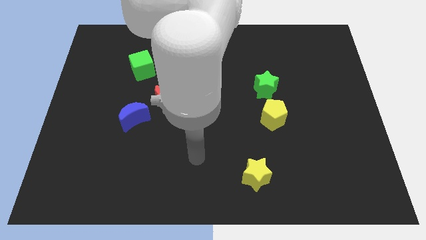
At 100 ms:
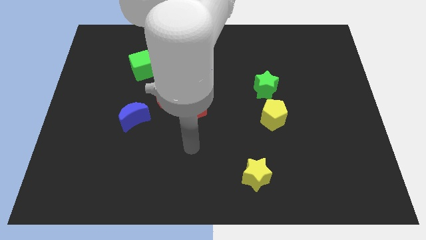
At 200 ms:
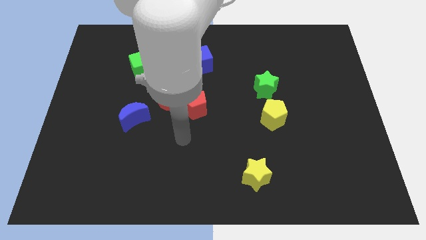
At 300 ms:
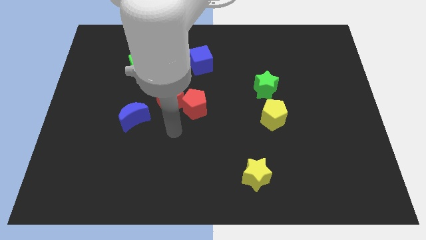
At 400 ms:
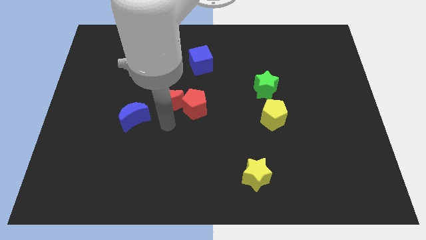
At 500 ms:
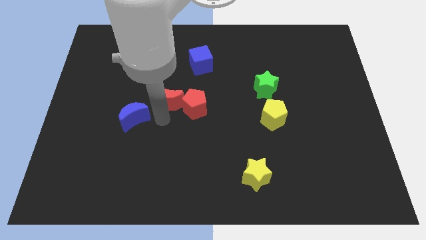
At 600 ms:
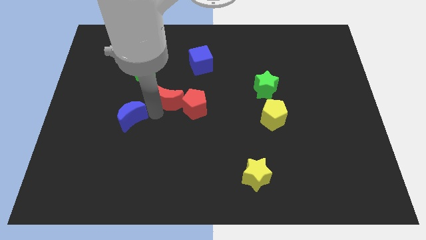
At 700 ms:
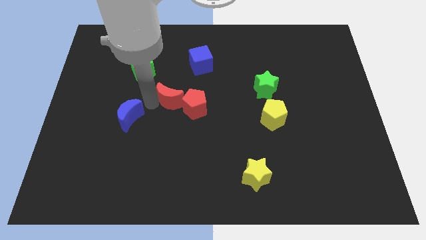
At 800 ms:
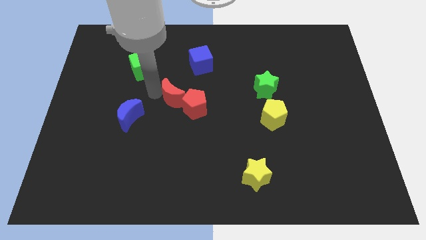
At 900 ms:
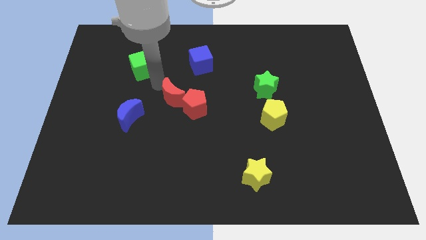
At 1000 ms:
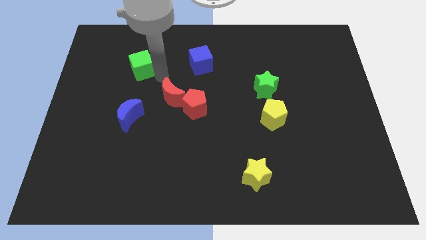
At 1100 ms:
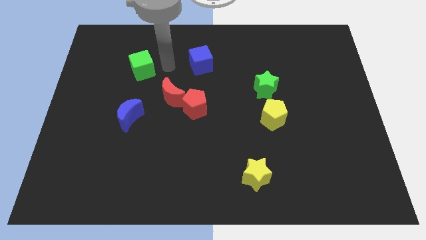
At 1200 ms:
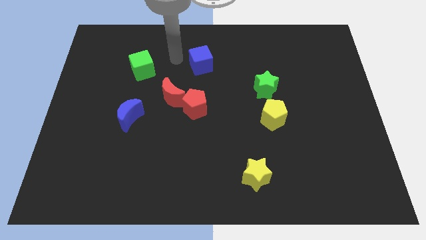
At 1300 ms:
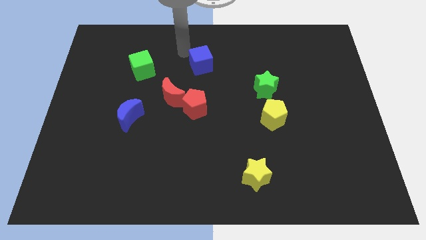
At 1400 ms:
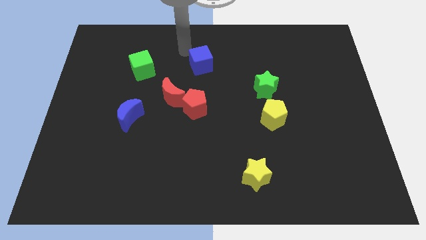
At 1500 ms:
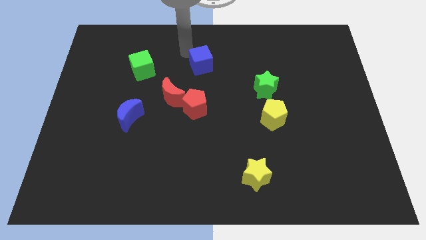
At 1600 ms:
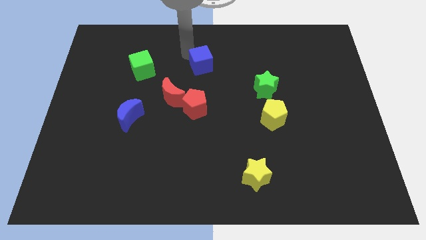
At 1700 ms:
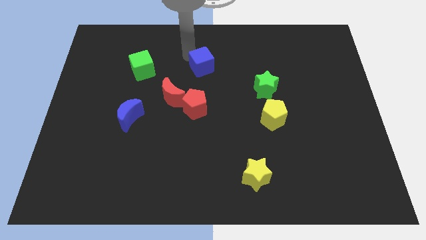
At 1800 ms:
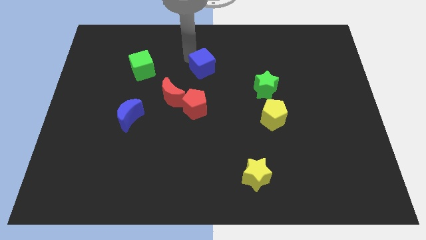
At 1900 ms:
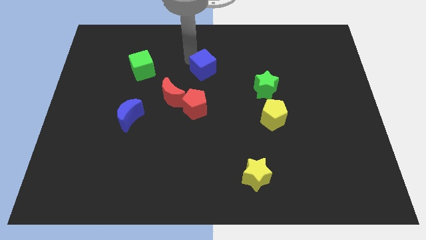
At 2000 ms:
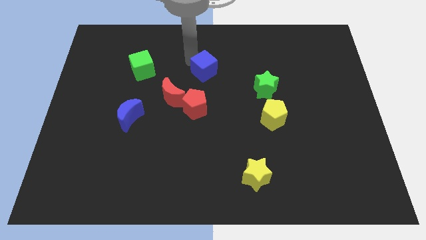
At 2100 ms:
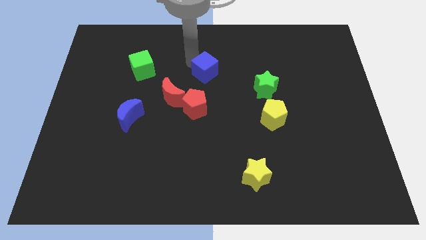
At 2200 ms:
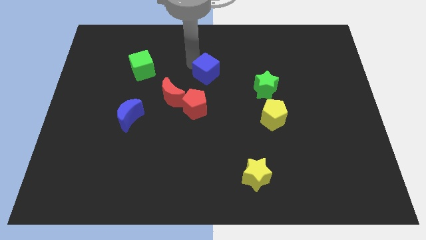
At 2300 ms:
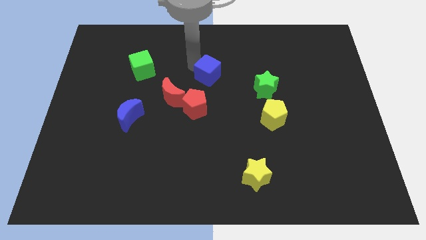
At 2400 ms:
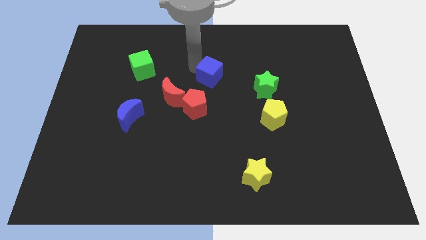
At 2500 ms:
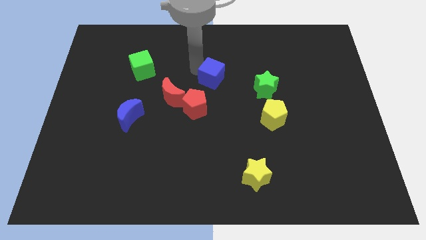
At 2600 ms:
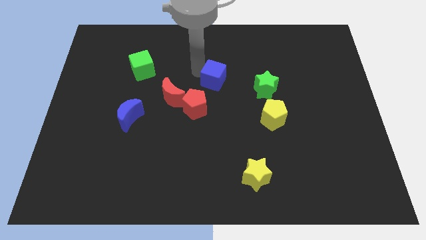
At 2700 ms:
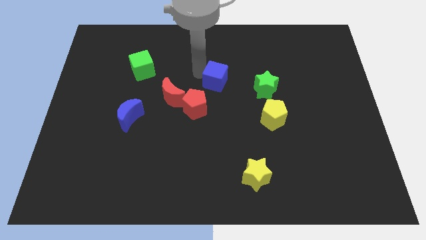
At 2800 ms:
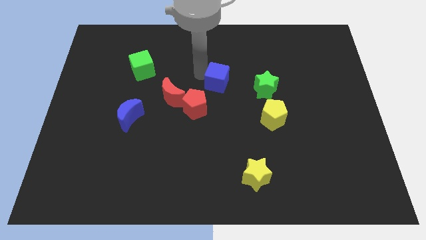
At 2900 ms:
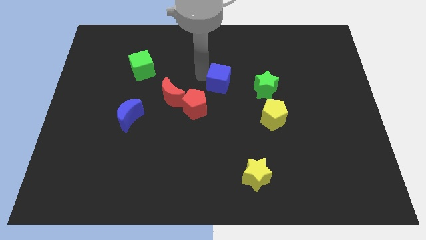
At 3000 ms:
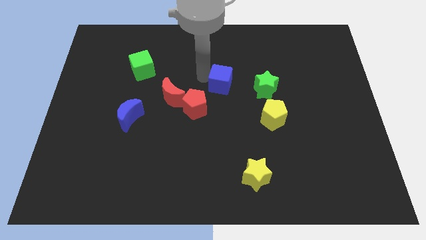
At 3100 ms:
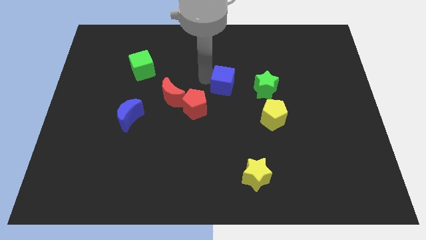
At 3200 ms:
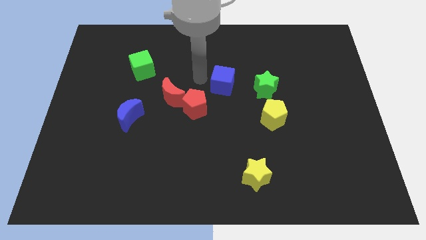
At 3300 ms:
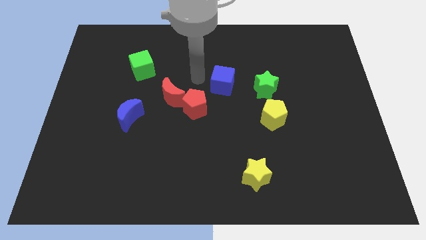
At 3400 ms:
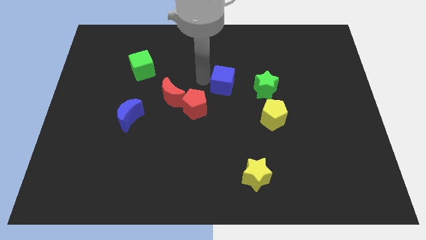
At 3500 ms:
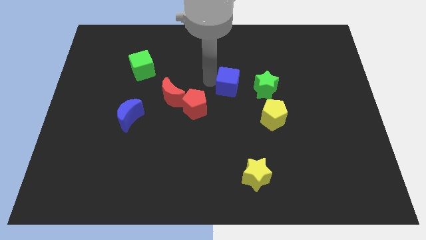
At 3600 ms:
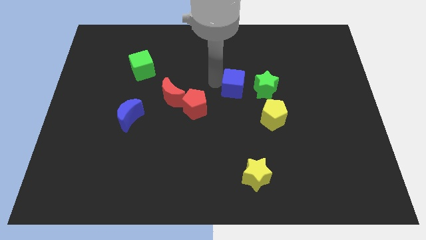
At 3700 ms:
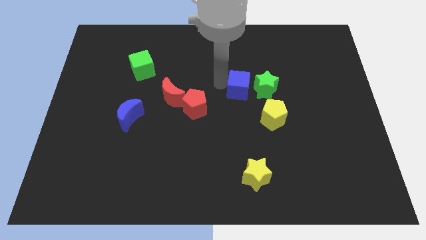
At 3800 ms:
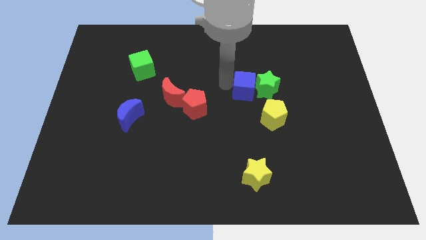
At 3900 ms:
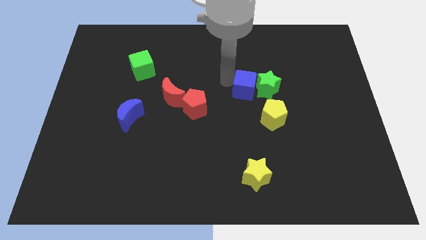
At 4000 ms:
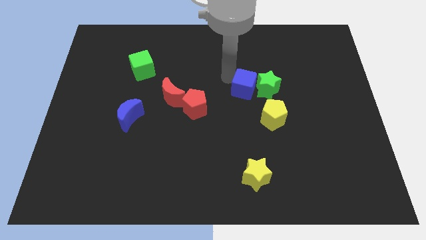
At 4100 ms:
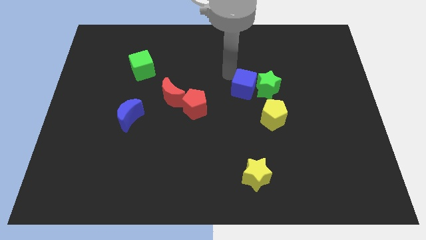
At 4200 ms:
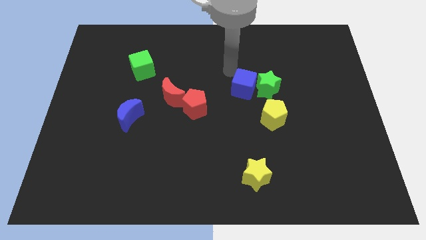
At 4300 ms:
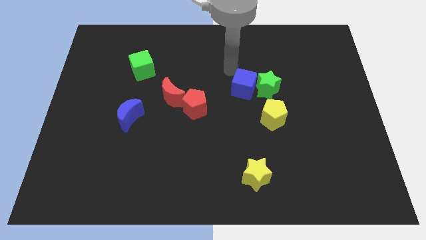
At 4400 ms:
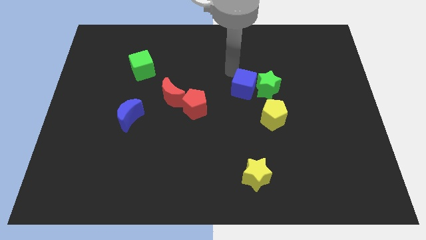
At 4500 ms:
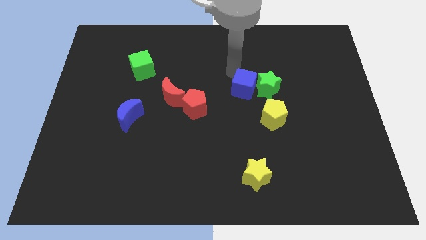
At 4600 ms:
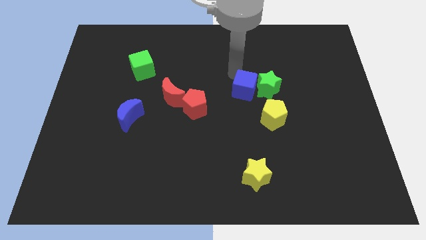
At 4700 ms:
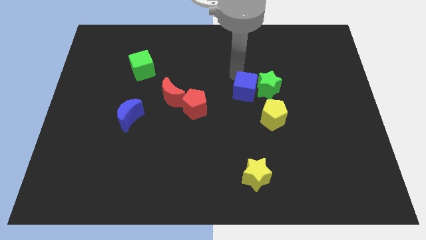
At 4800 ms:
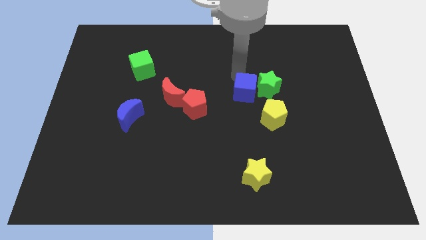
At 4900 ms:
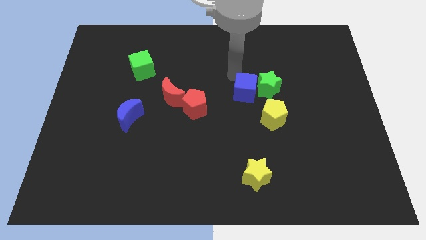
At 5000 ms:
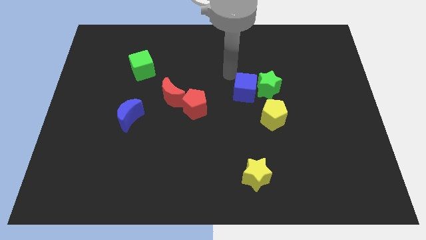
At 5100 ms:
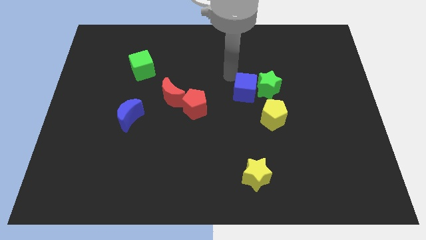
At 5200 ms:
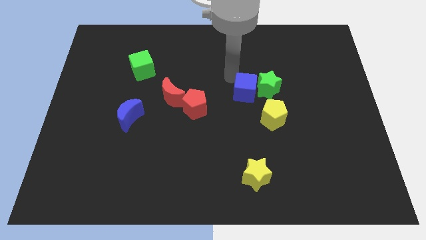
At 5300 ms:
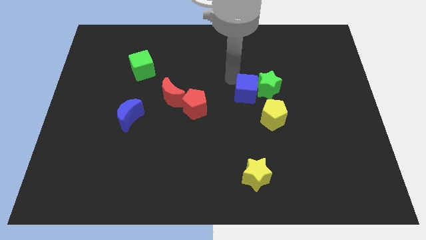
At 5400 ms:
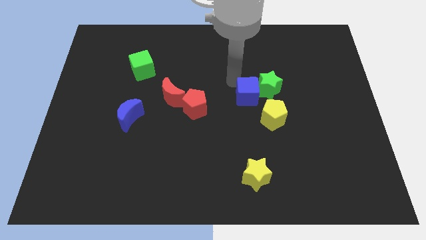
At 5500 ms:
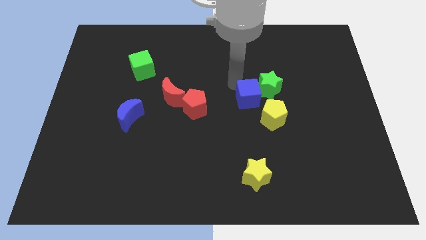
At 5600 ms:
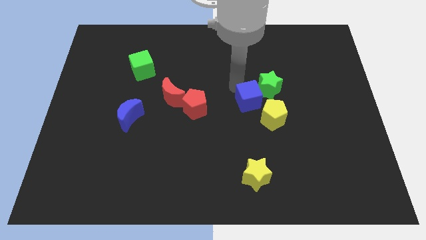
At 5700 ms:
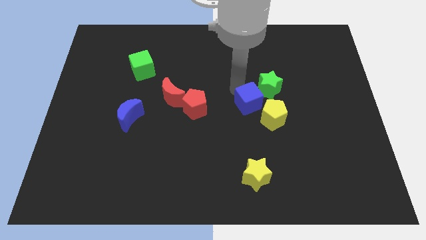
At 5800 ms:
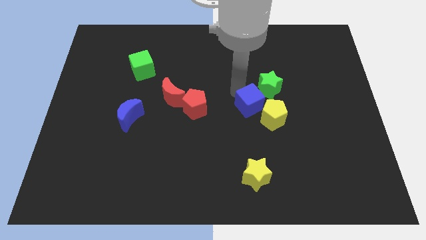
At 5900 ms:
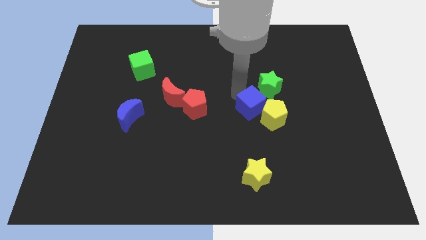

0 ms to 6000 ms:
slide the blue cube next to the yellow pentagon

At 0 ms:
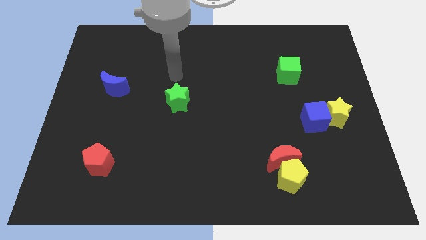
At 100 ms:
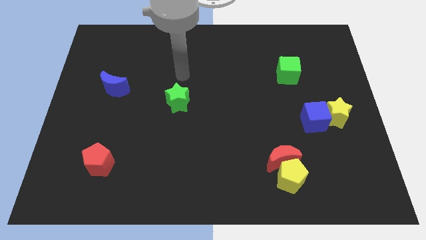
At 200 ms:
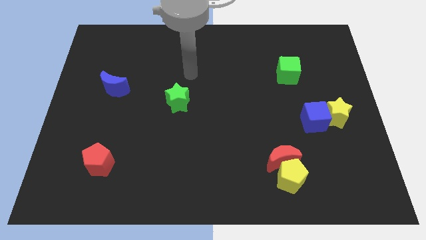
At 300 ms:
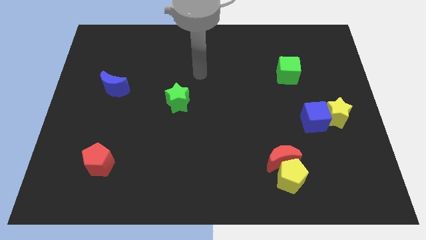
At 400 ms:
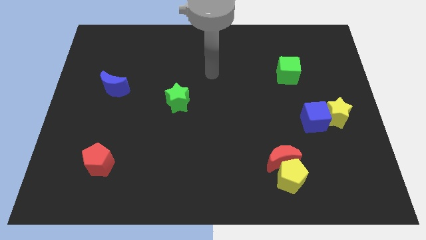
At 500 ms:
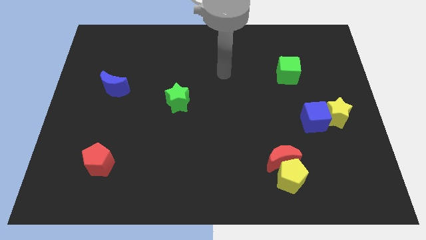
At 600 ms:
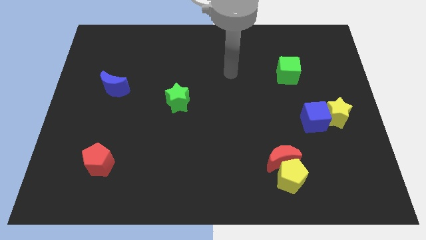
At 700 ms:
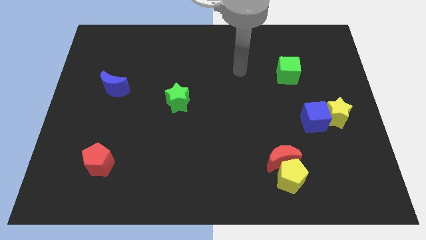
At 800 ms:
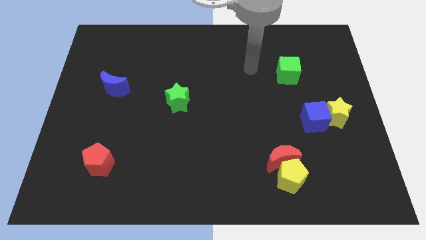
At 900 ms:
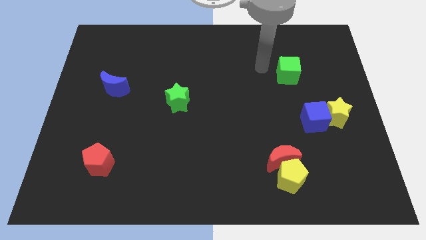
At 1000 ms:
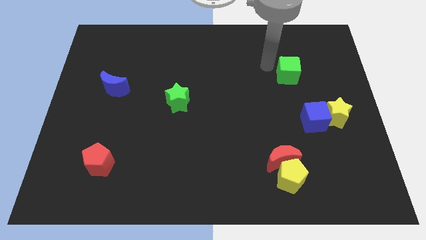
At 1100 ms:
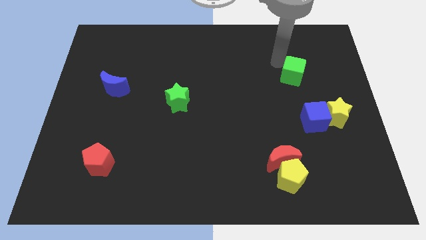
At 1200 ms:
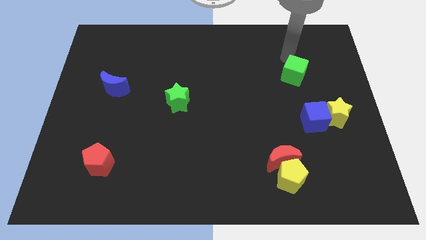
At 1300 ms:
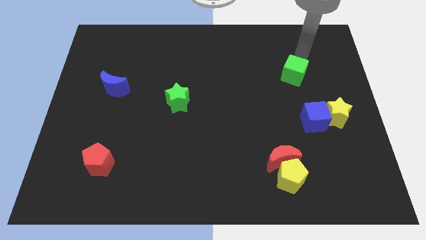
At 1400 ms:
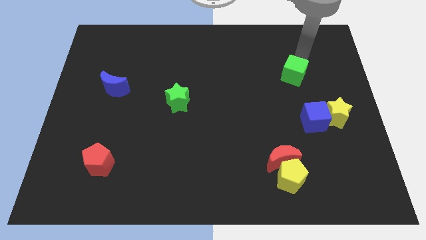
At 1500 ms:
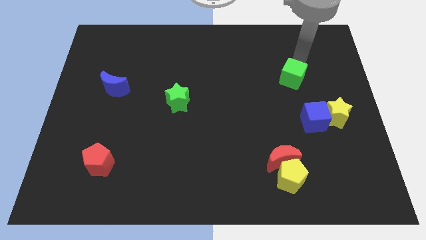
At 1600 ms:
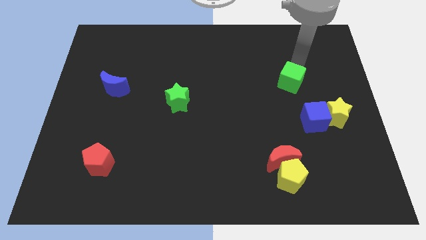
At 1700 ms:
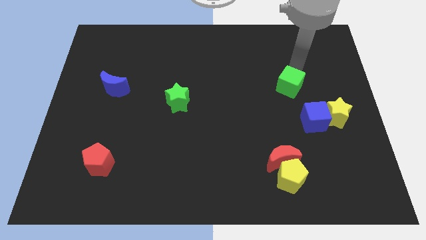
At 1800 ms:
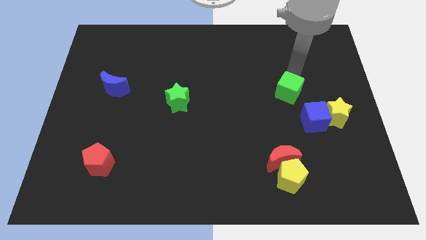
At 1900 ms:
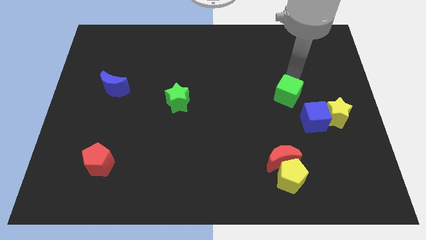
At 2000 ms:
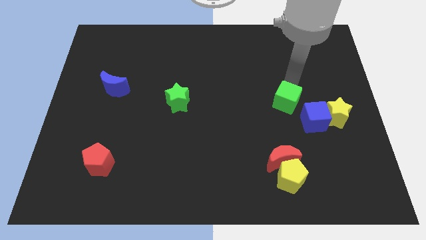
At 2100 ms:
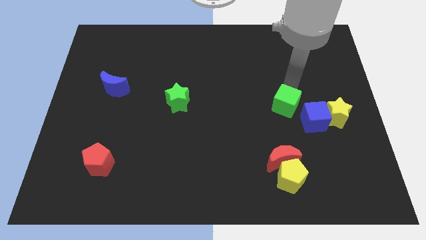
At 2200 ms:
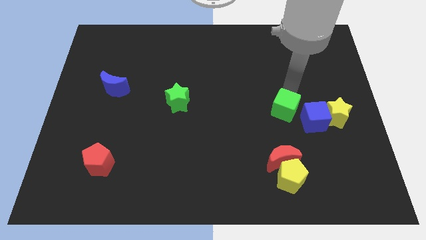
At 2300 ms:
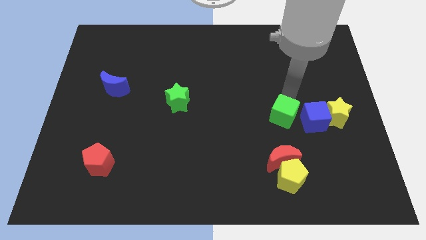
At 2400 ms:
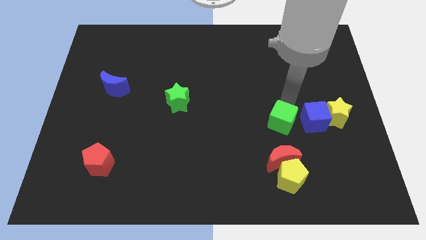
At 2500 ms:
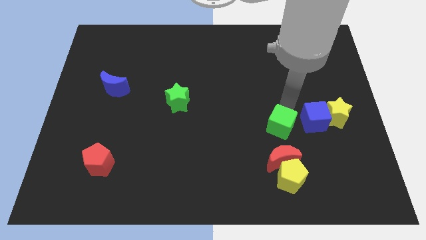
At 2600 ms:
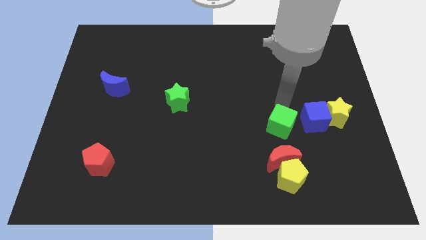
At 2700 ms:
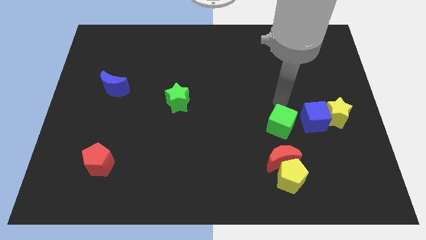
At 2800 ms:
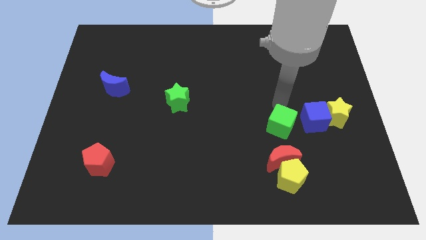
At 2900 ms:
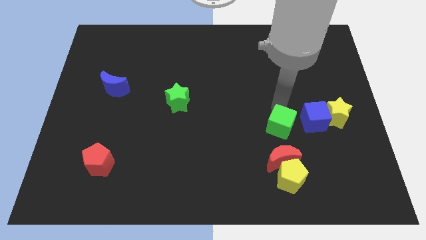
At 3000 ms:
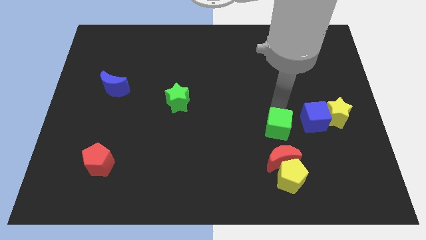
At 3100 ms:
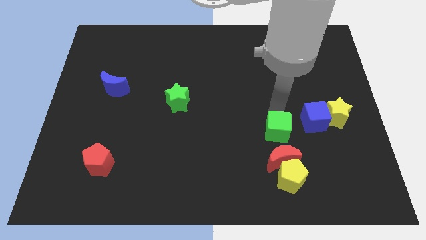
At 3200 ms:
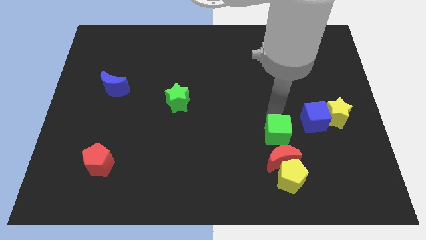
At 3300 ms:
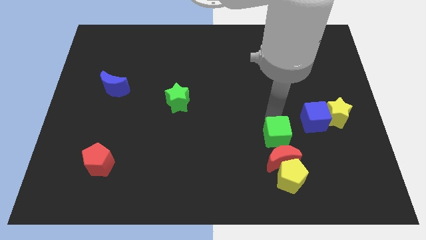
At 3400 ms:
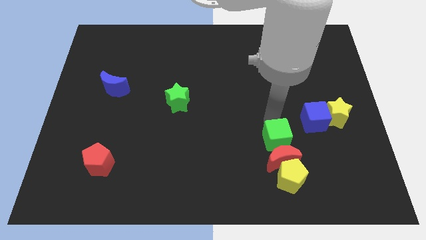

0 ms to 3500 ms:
put the green cube close to the red moon
